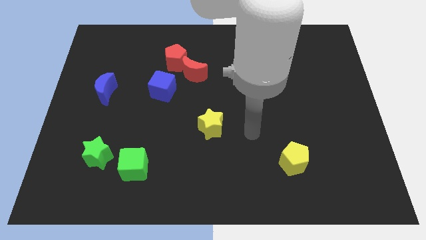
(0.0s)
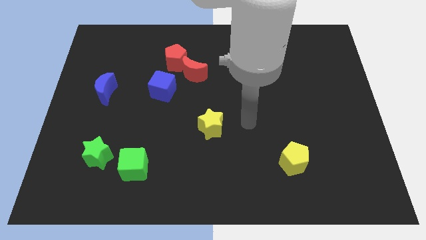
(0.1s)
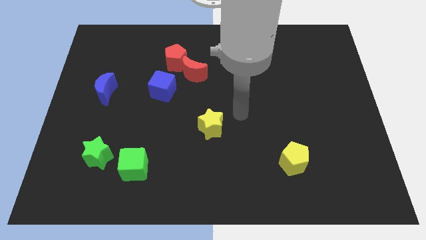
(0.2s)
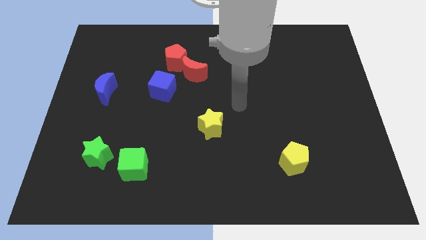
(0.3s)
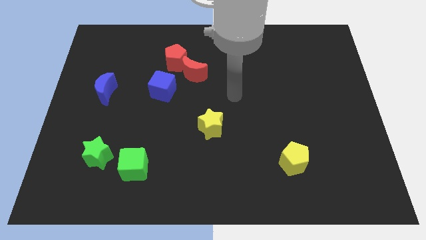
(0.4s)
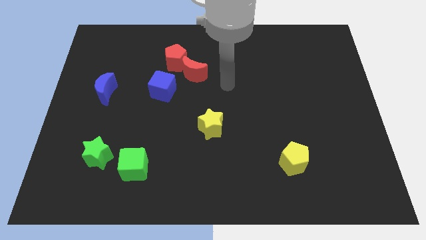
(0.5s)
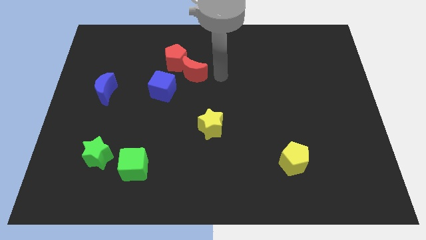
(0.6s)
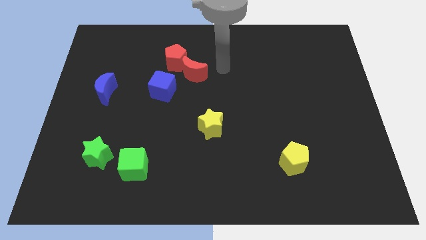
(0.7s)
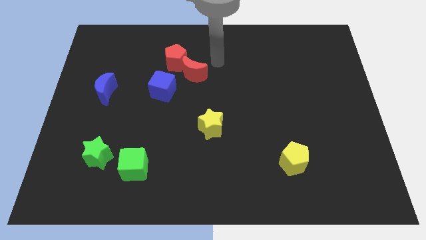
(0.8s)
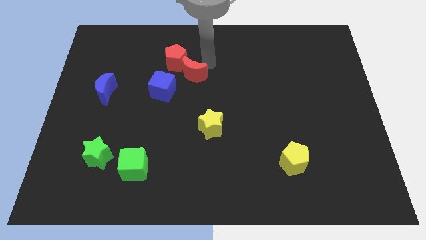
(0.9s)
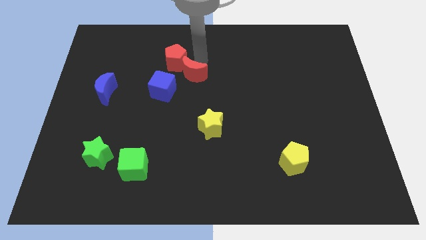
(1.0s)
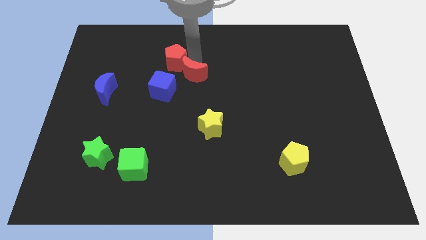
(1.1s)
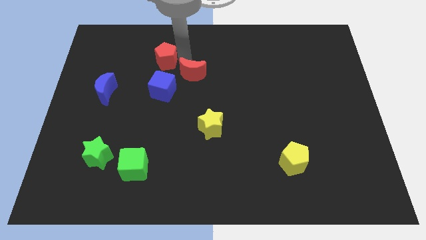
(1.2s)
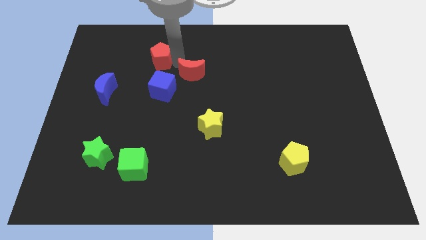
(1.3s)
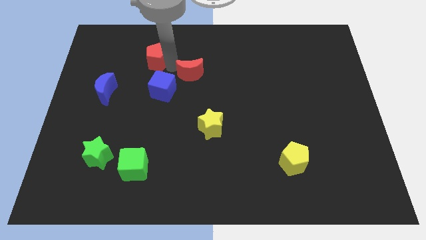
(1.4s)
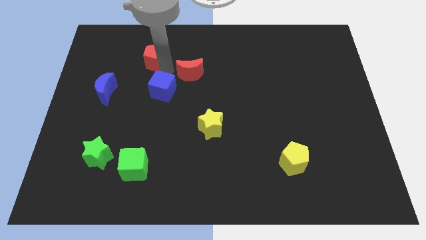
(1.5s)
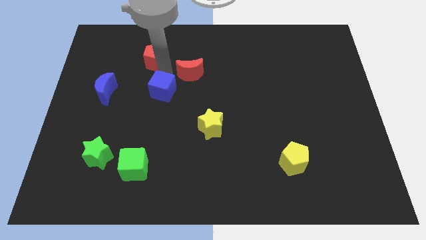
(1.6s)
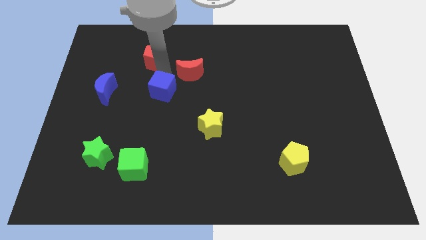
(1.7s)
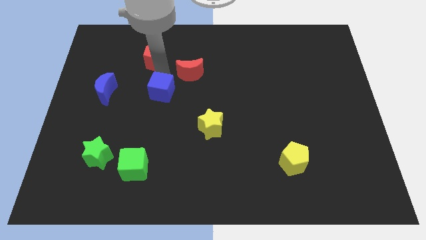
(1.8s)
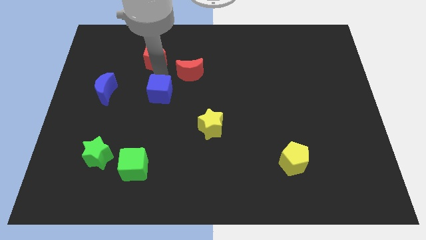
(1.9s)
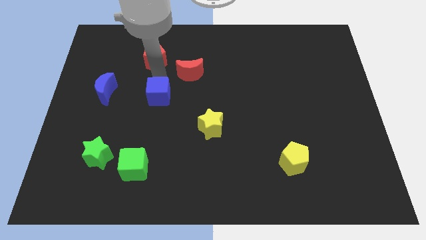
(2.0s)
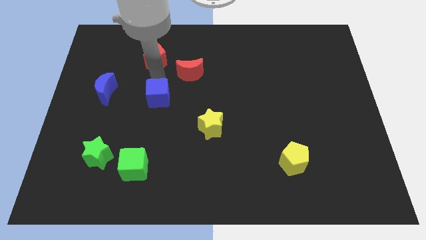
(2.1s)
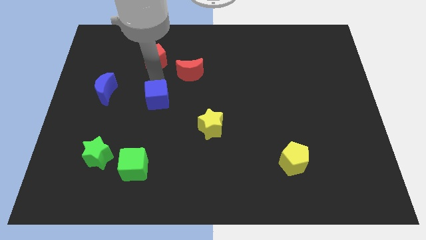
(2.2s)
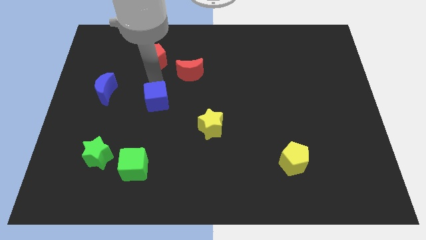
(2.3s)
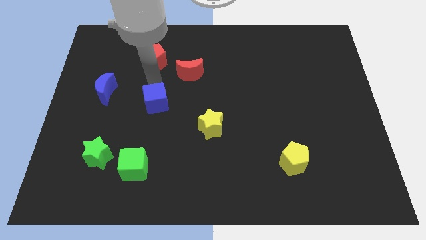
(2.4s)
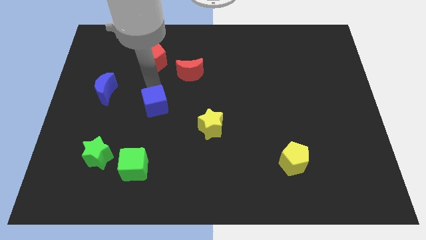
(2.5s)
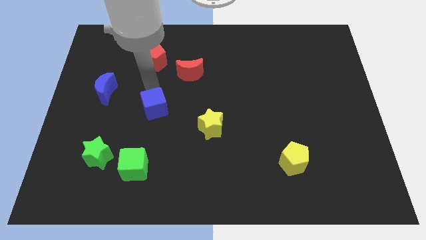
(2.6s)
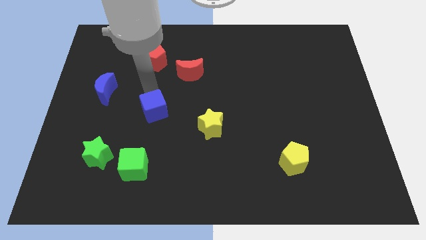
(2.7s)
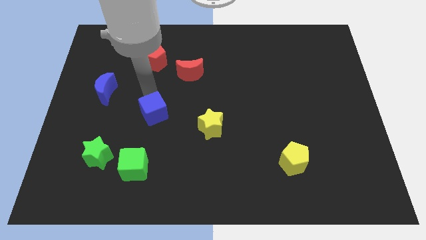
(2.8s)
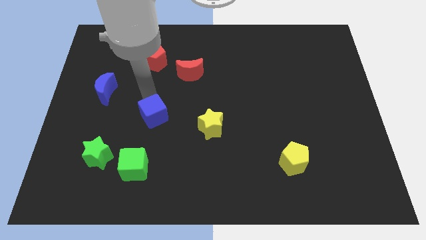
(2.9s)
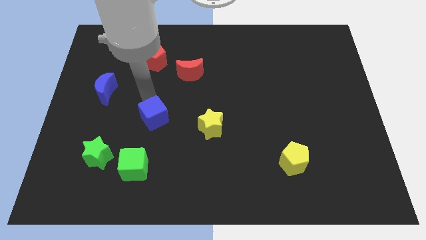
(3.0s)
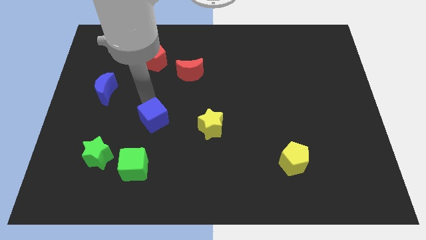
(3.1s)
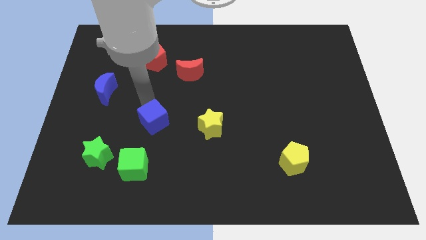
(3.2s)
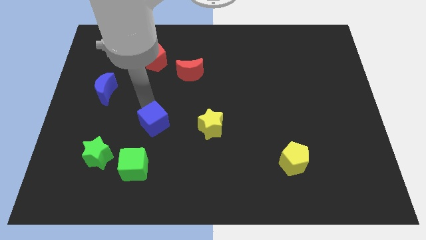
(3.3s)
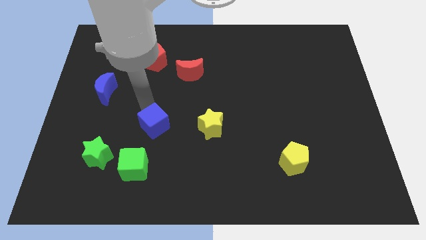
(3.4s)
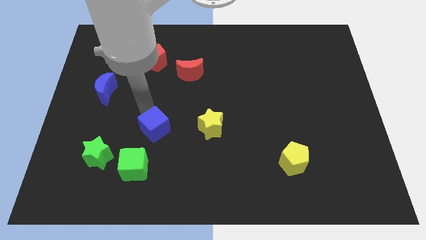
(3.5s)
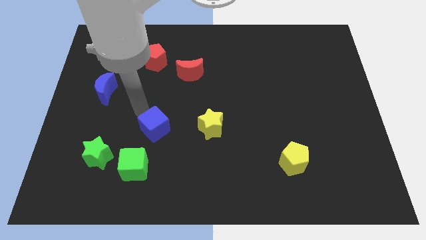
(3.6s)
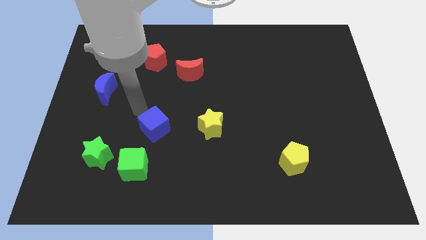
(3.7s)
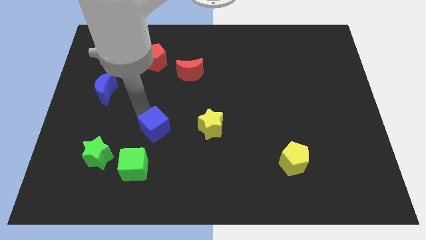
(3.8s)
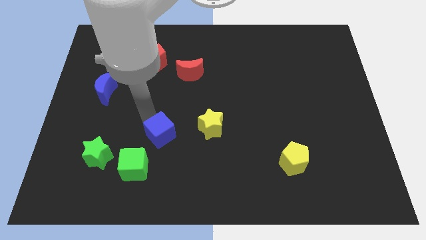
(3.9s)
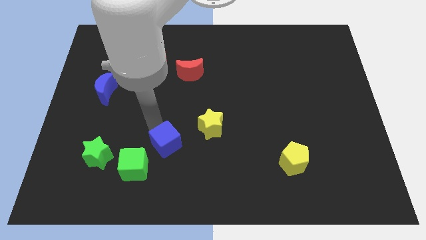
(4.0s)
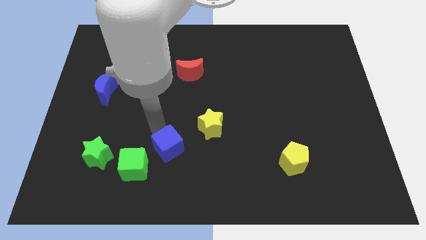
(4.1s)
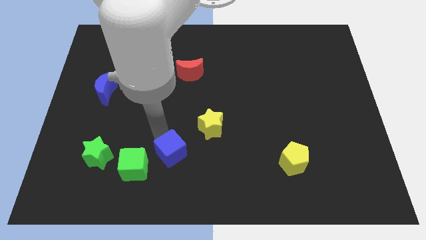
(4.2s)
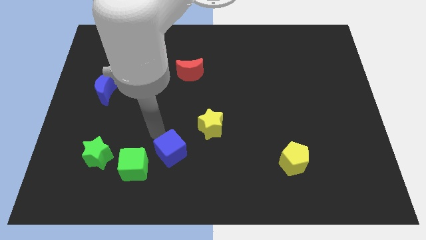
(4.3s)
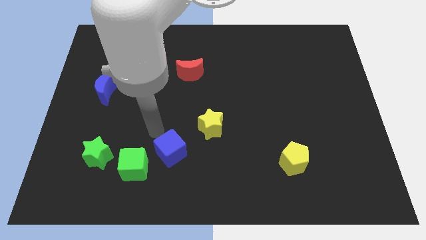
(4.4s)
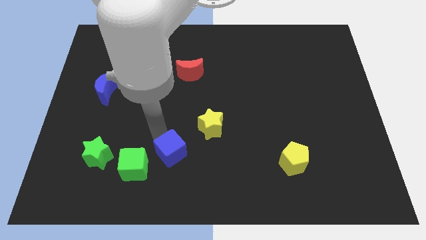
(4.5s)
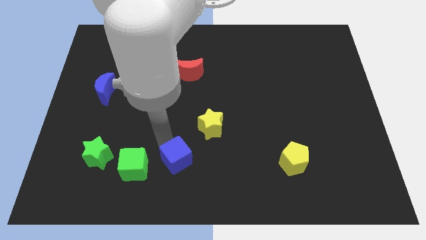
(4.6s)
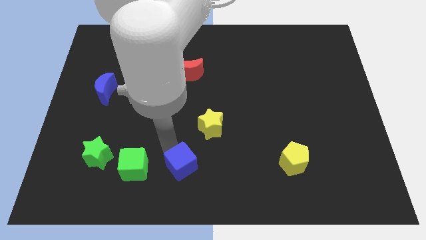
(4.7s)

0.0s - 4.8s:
put the blue cube to the bottom side

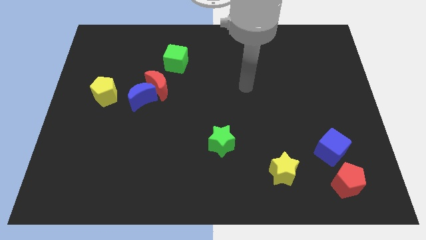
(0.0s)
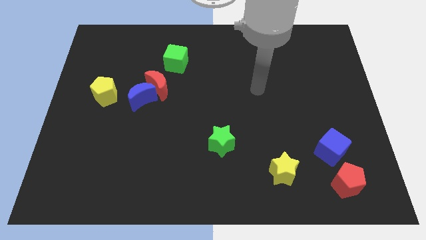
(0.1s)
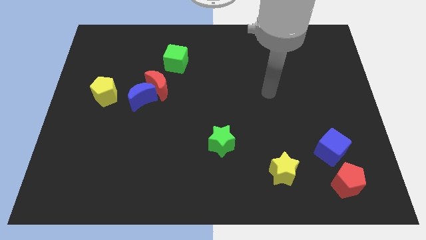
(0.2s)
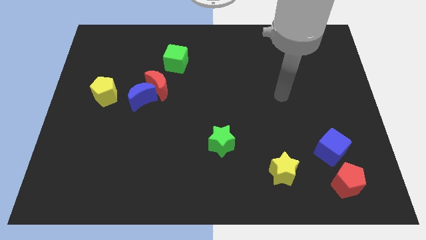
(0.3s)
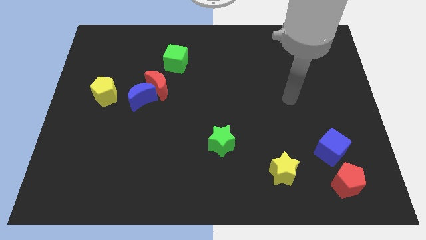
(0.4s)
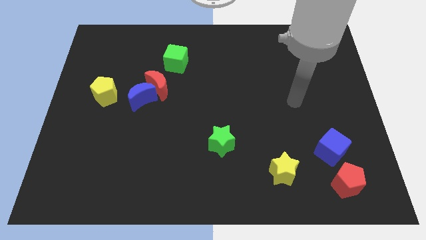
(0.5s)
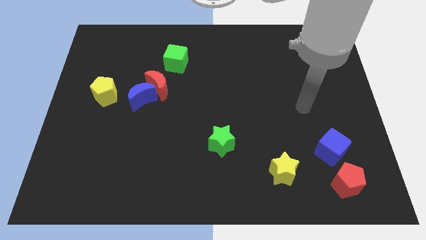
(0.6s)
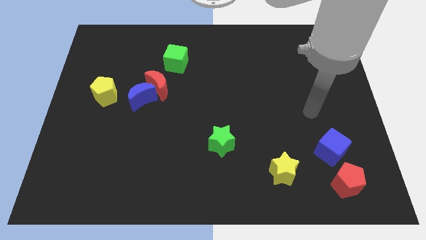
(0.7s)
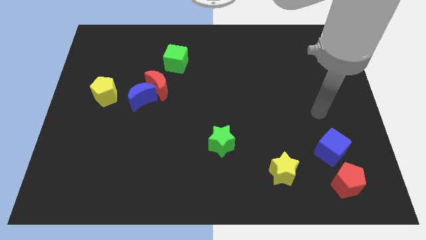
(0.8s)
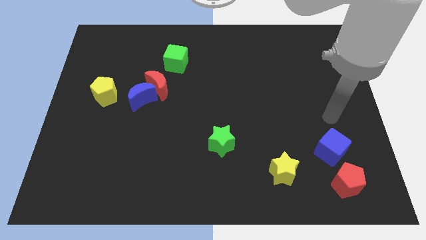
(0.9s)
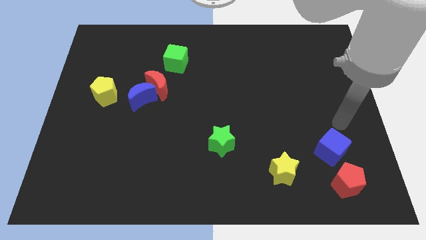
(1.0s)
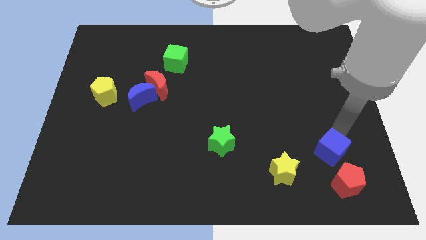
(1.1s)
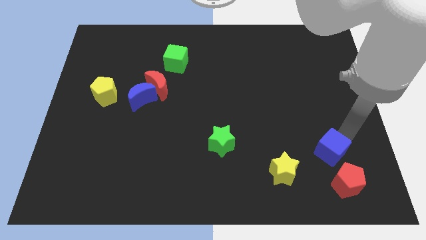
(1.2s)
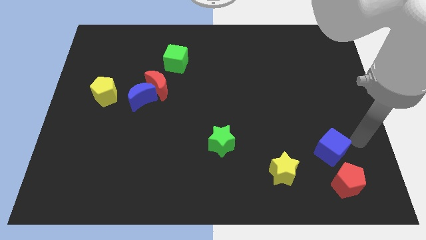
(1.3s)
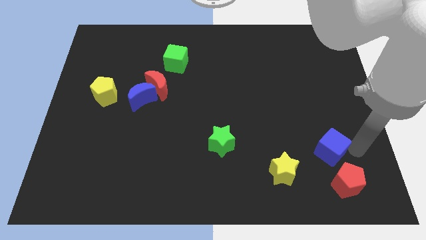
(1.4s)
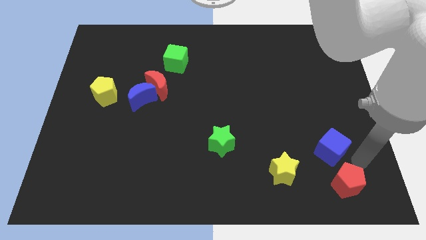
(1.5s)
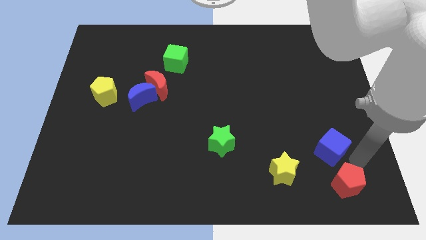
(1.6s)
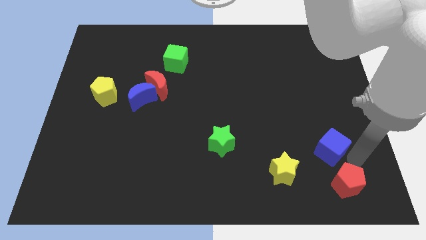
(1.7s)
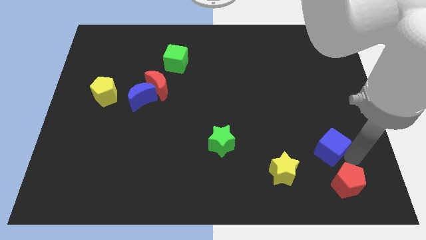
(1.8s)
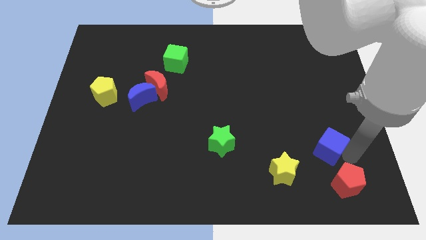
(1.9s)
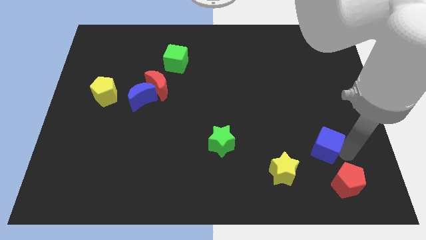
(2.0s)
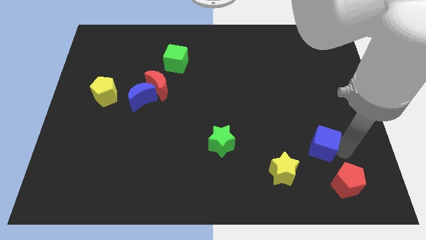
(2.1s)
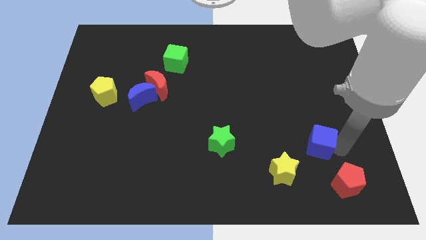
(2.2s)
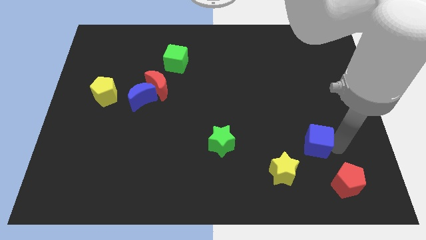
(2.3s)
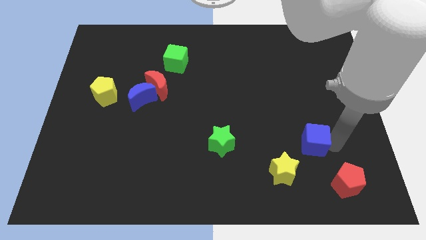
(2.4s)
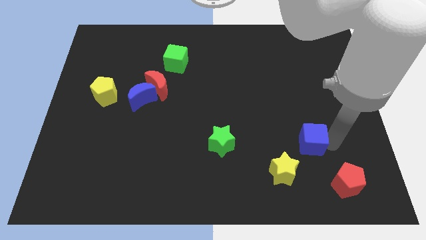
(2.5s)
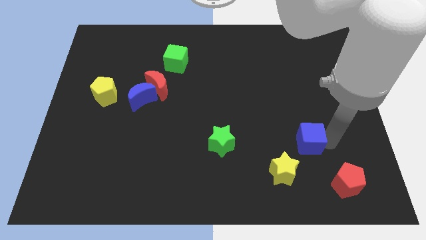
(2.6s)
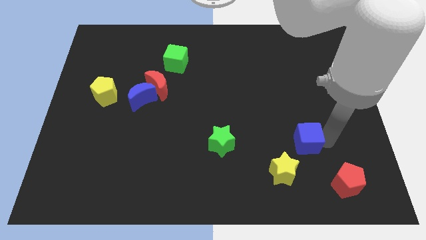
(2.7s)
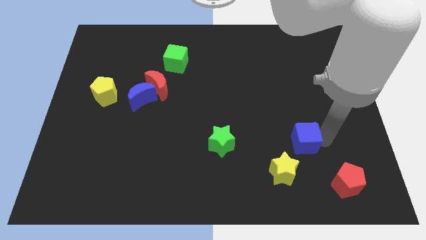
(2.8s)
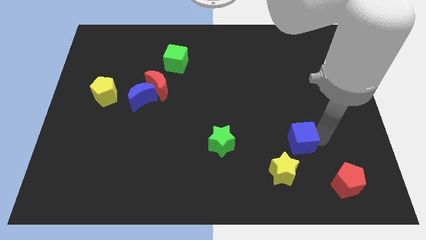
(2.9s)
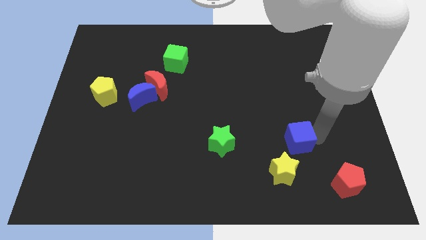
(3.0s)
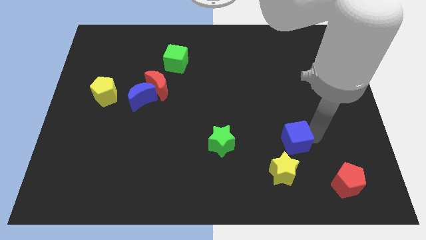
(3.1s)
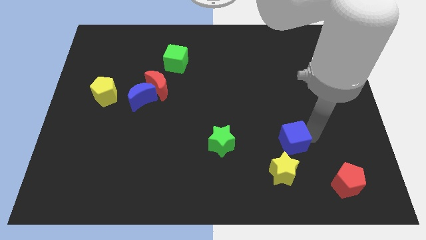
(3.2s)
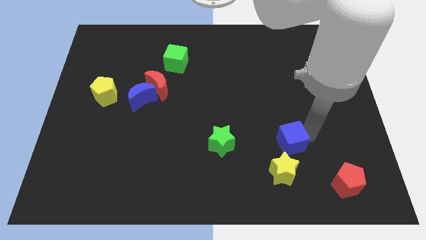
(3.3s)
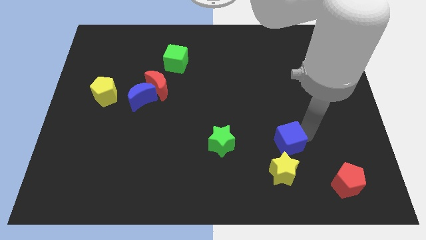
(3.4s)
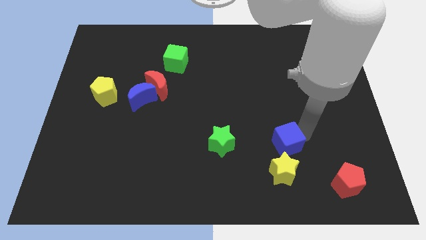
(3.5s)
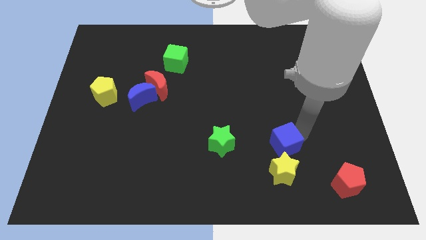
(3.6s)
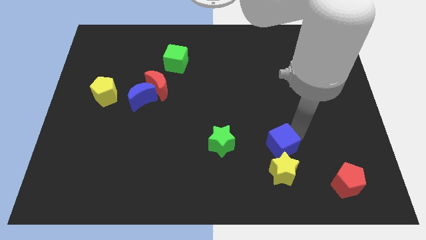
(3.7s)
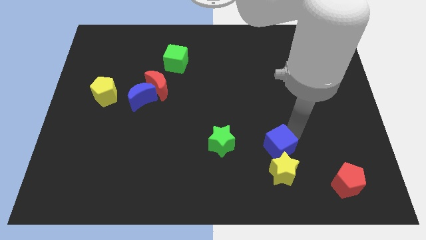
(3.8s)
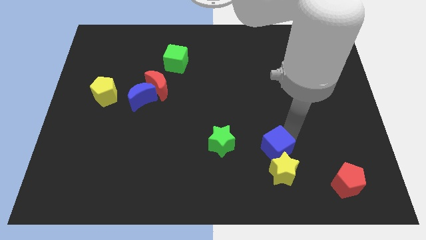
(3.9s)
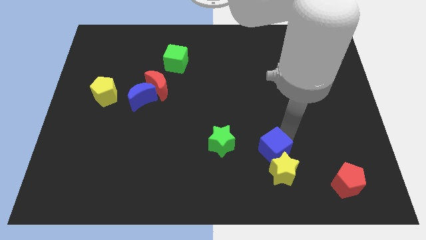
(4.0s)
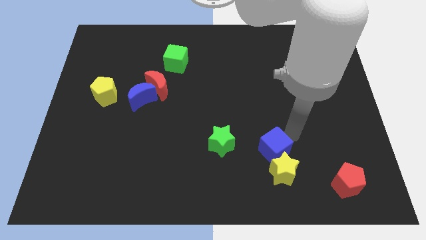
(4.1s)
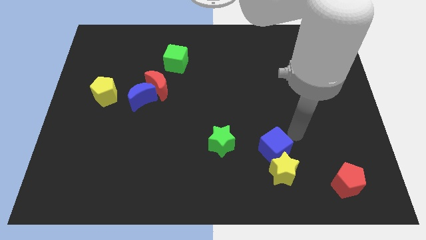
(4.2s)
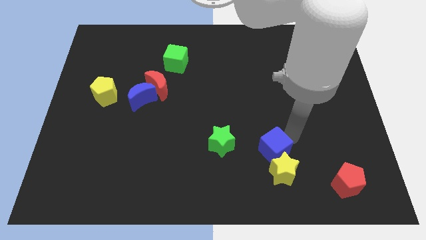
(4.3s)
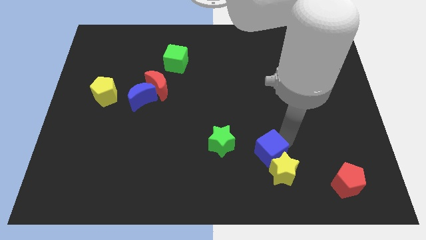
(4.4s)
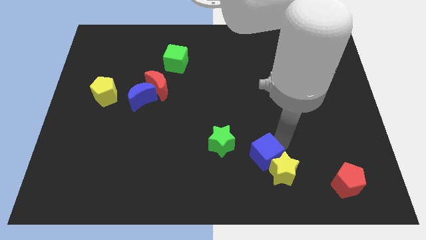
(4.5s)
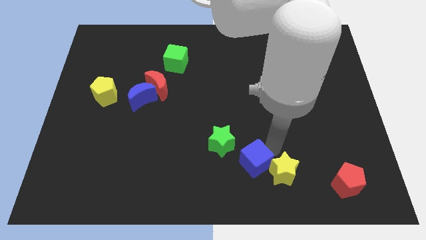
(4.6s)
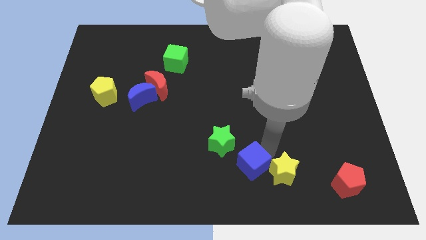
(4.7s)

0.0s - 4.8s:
slide the blue cube to the bottom side
